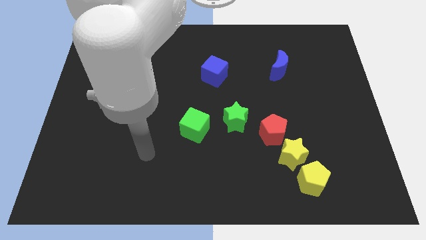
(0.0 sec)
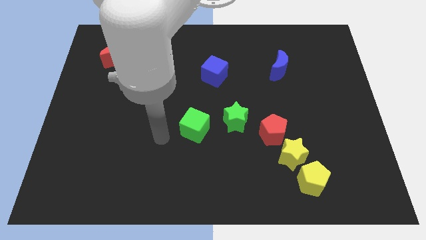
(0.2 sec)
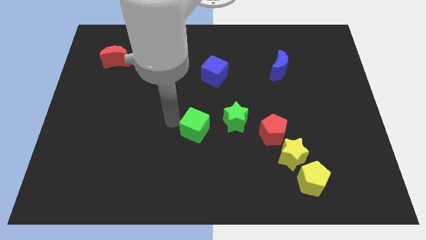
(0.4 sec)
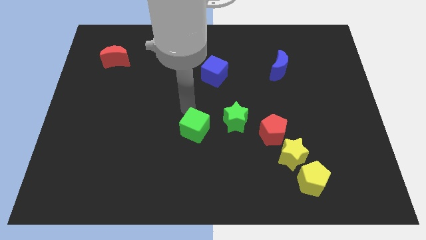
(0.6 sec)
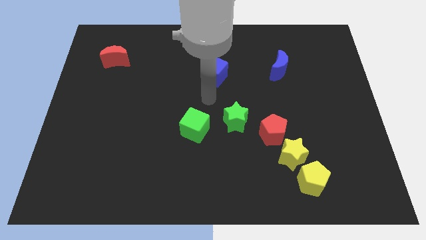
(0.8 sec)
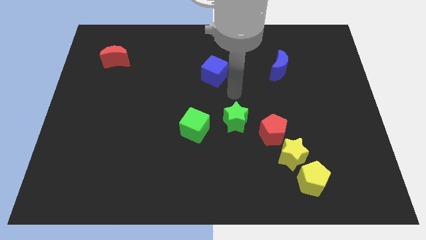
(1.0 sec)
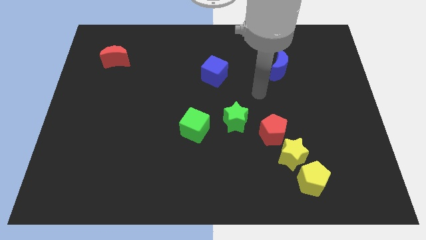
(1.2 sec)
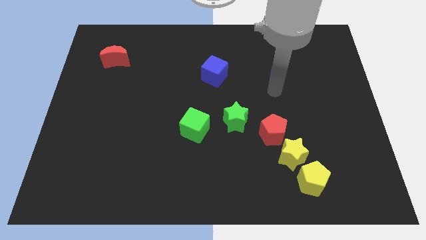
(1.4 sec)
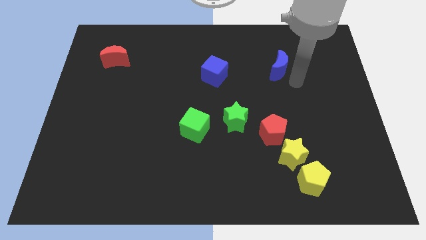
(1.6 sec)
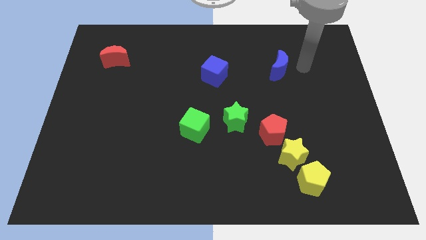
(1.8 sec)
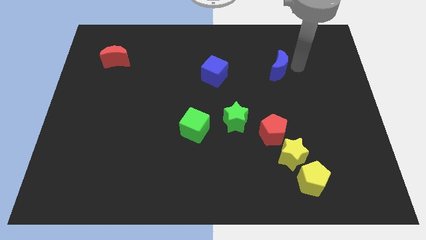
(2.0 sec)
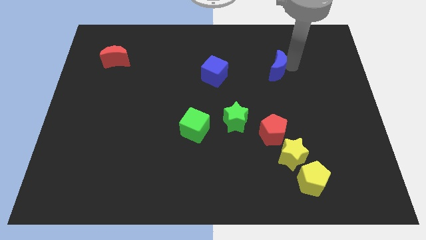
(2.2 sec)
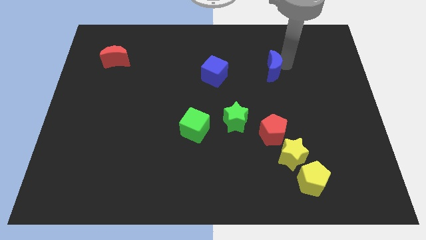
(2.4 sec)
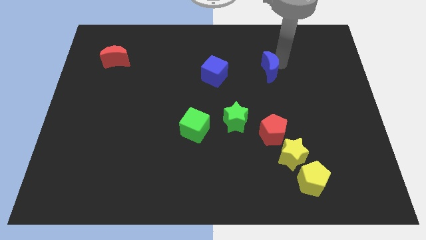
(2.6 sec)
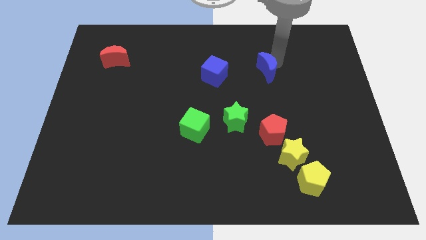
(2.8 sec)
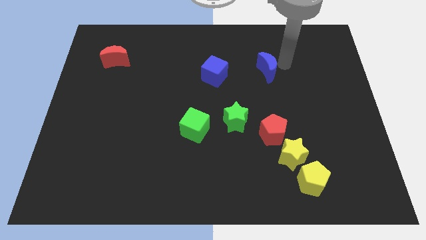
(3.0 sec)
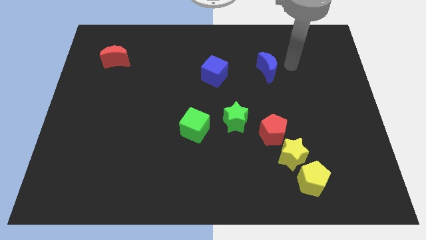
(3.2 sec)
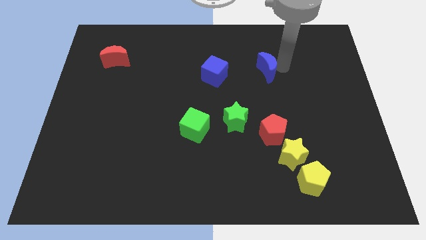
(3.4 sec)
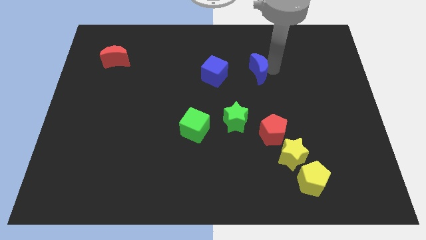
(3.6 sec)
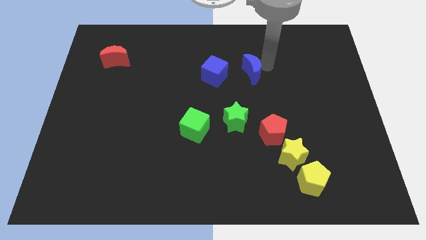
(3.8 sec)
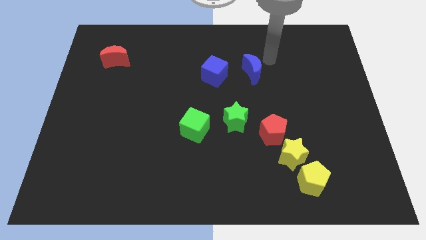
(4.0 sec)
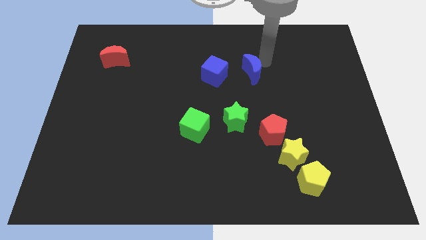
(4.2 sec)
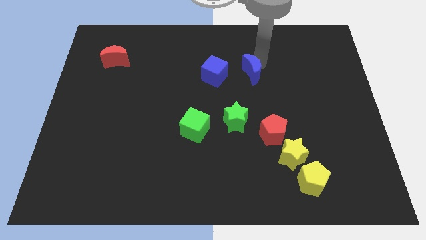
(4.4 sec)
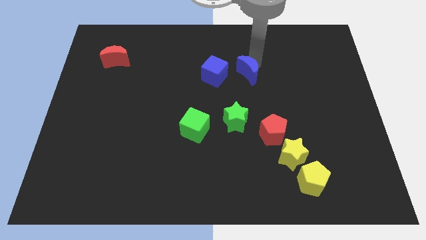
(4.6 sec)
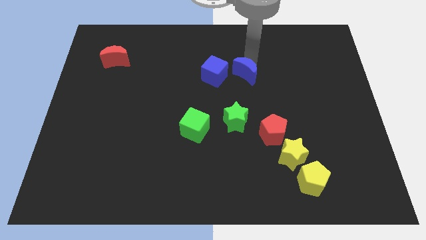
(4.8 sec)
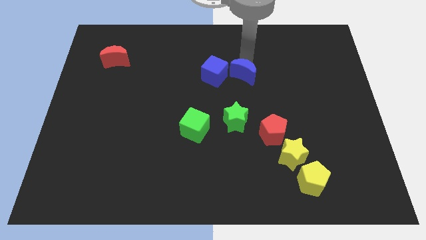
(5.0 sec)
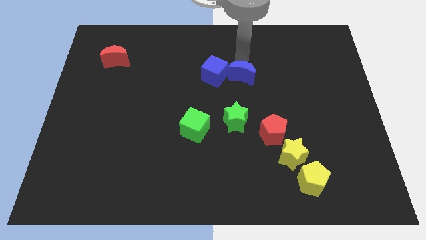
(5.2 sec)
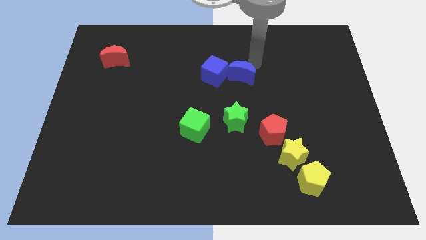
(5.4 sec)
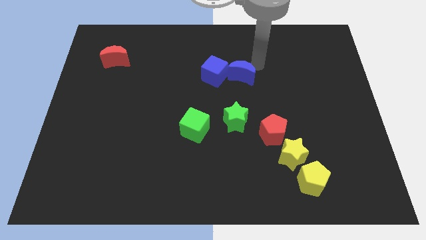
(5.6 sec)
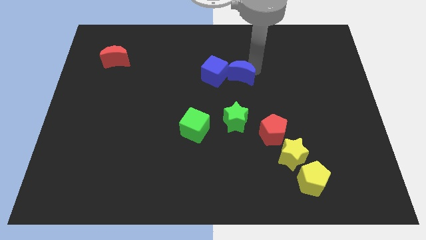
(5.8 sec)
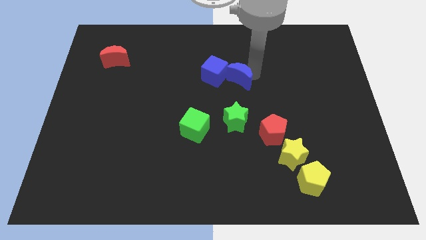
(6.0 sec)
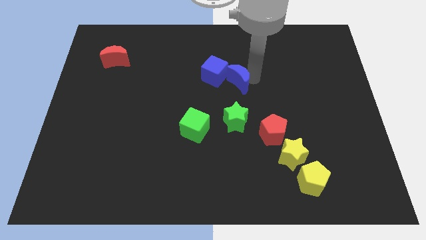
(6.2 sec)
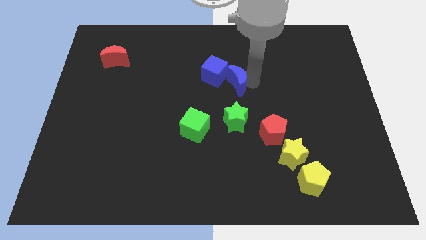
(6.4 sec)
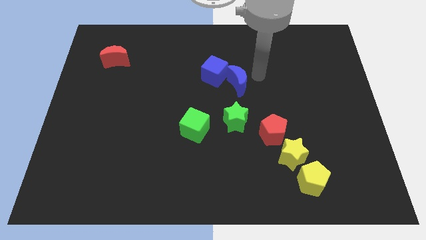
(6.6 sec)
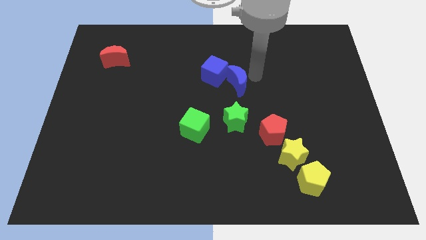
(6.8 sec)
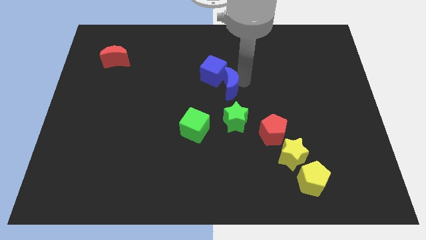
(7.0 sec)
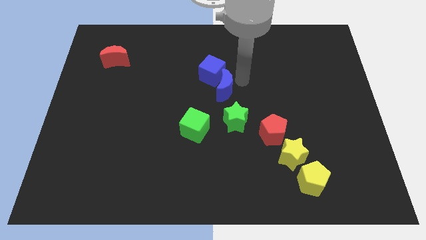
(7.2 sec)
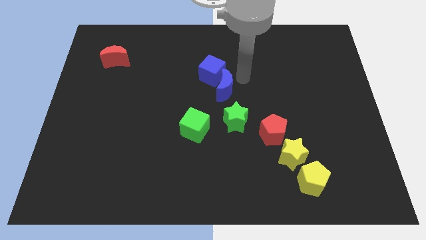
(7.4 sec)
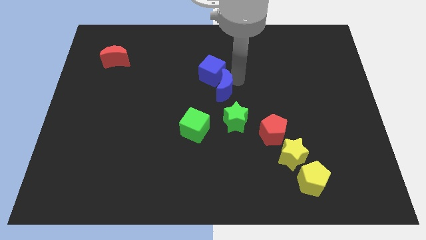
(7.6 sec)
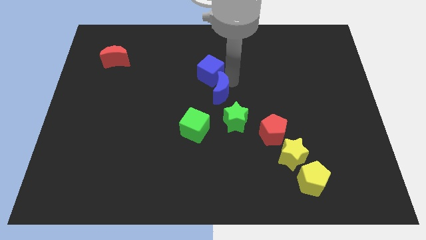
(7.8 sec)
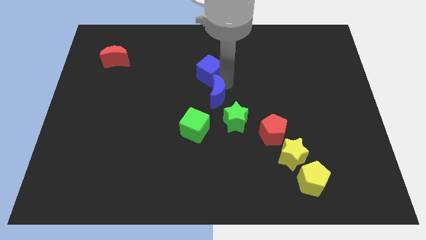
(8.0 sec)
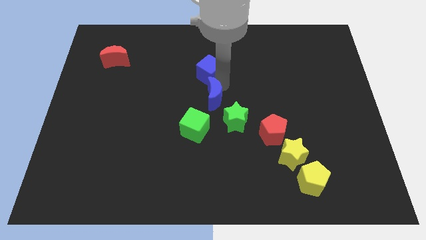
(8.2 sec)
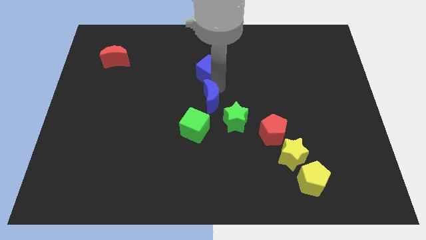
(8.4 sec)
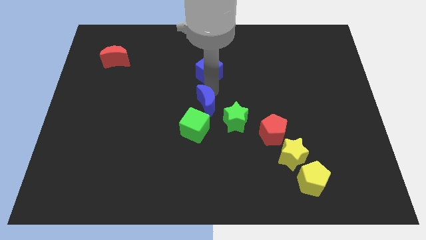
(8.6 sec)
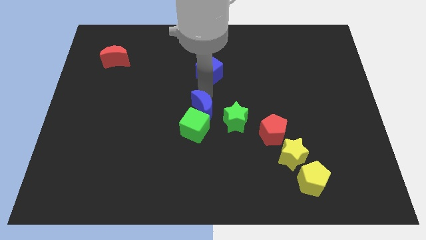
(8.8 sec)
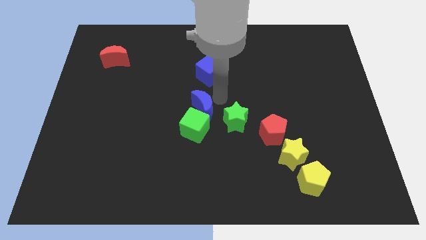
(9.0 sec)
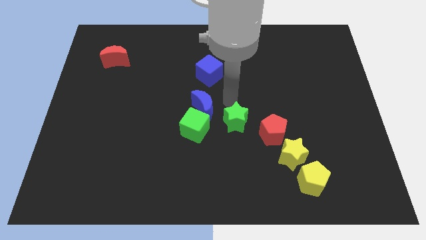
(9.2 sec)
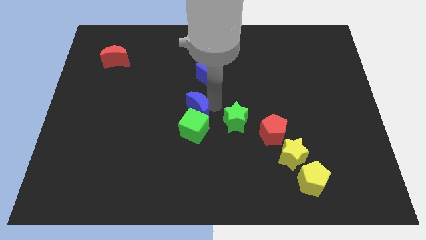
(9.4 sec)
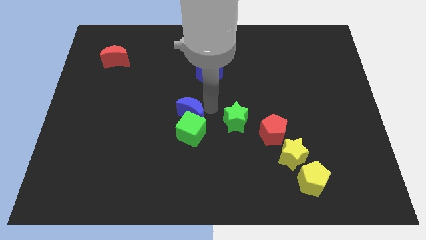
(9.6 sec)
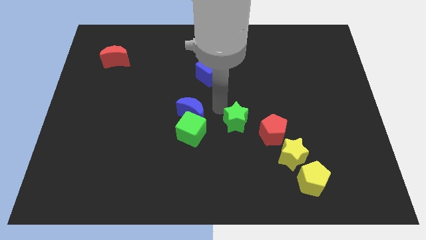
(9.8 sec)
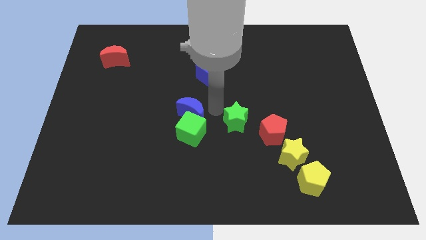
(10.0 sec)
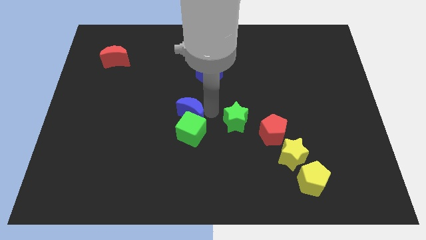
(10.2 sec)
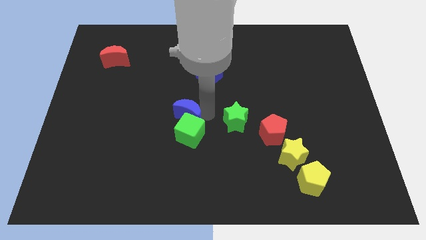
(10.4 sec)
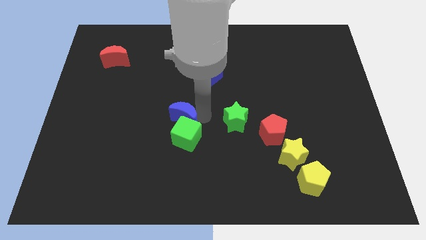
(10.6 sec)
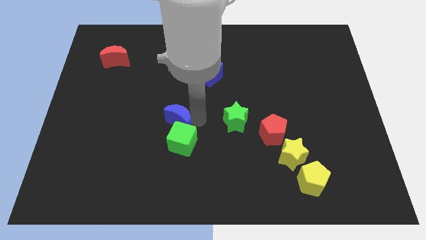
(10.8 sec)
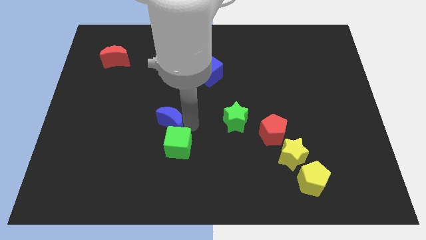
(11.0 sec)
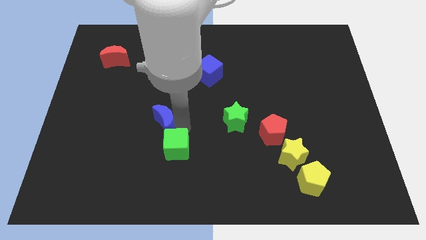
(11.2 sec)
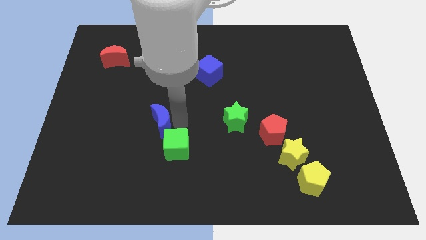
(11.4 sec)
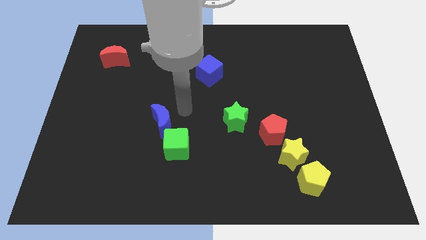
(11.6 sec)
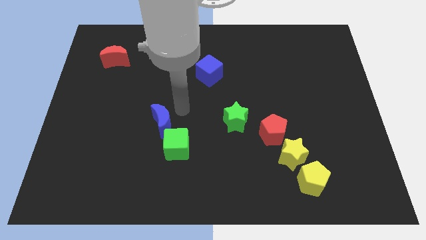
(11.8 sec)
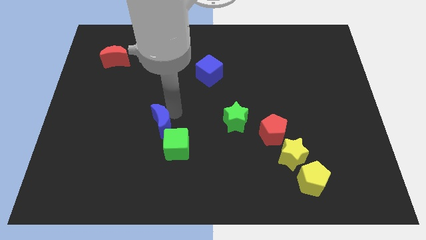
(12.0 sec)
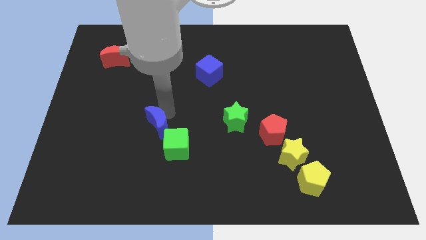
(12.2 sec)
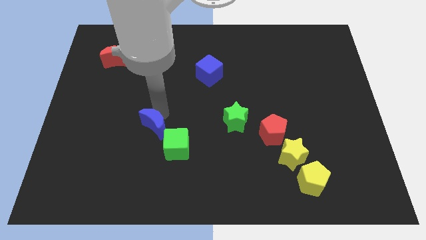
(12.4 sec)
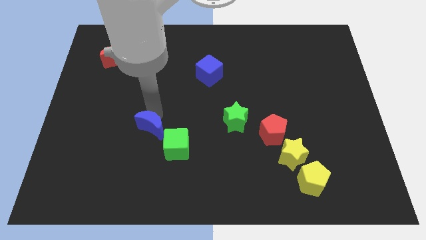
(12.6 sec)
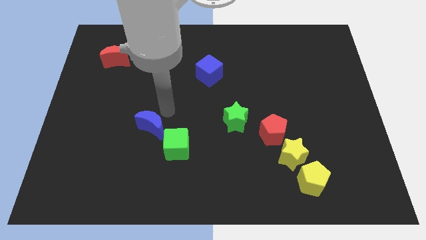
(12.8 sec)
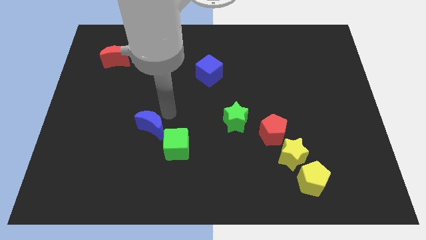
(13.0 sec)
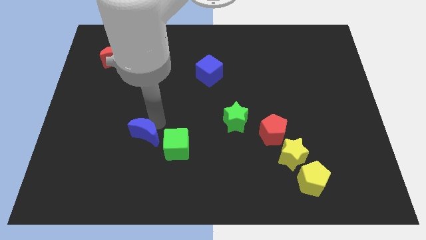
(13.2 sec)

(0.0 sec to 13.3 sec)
push the blue moon to the left of the green cube
